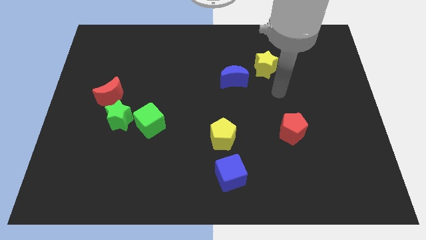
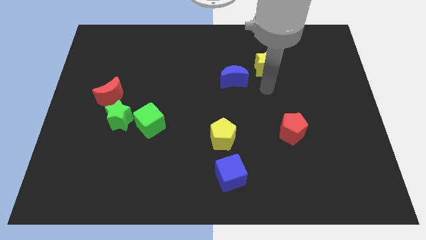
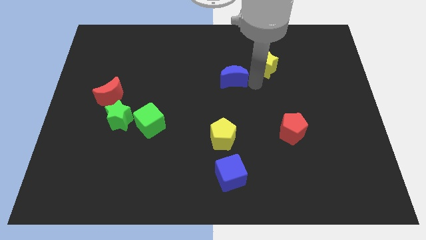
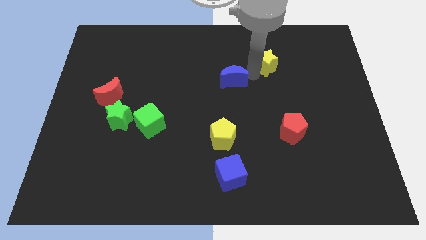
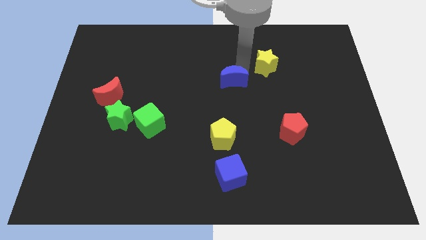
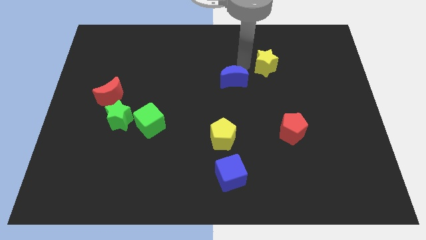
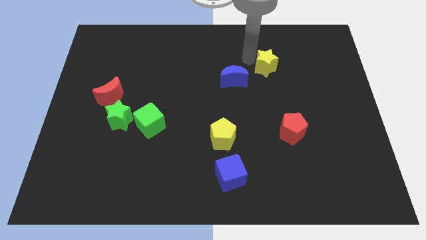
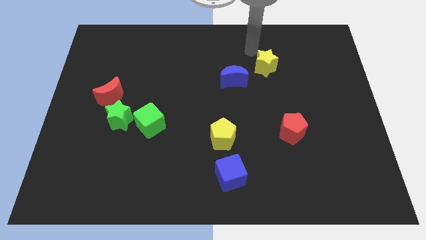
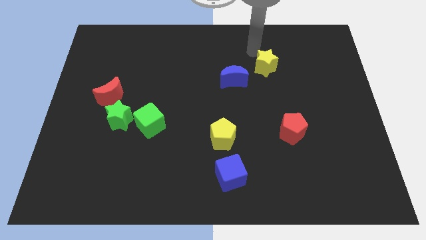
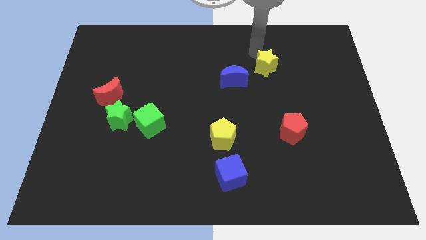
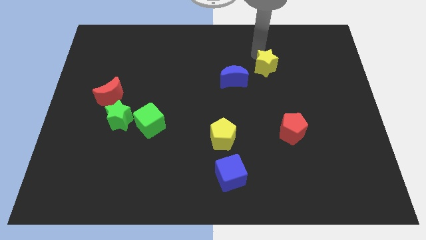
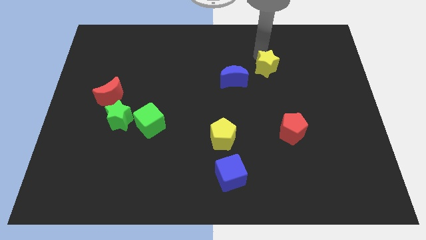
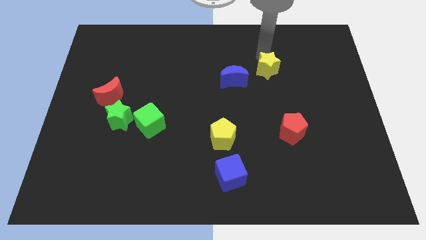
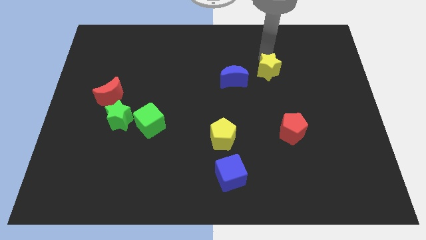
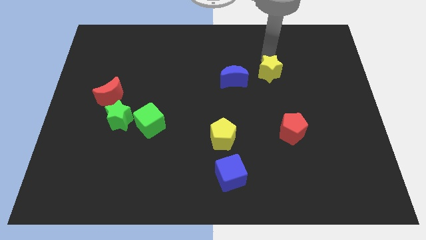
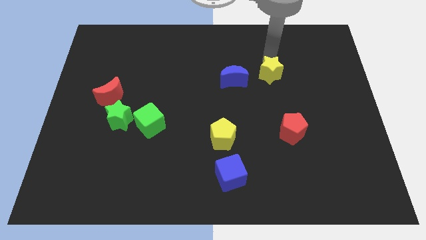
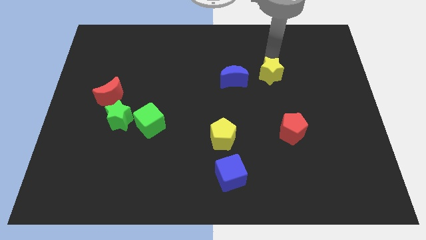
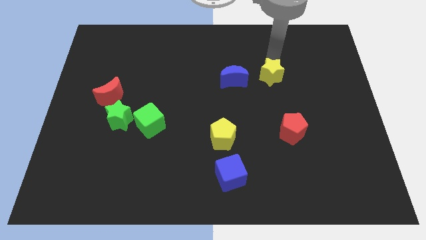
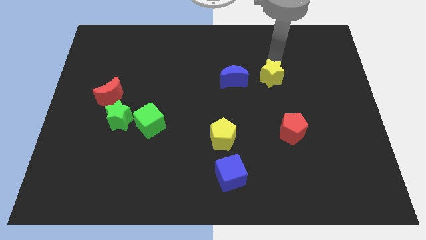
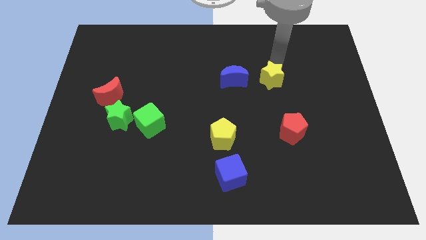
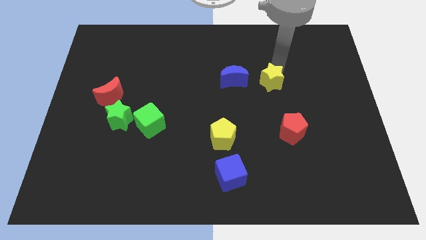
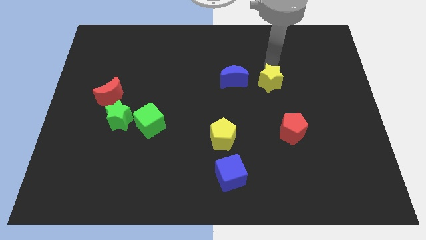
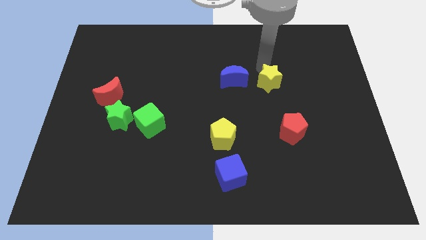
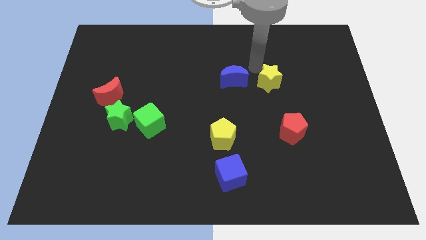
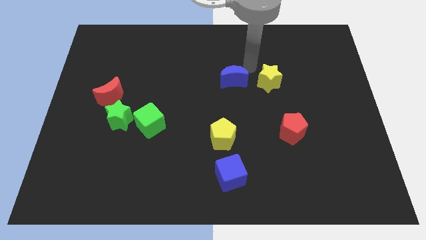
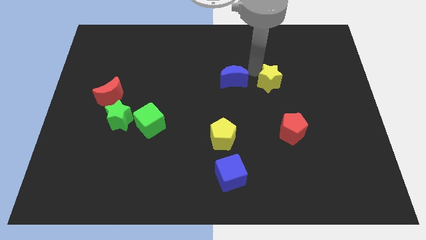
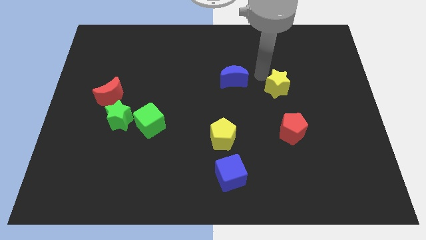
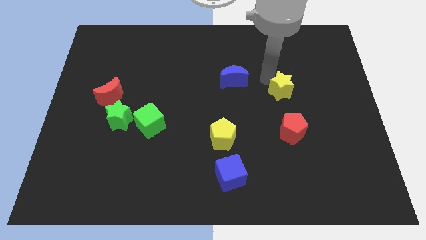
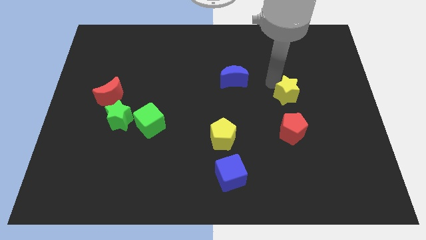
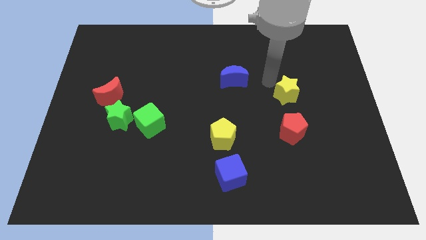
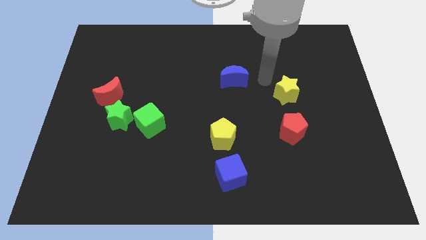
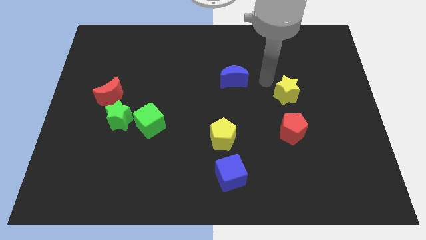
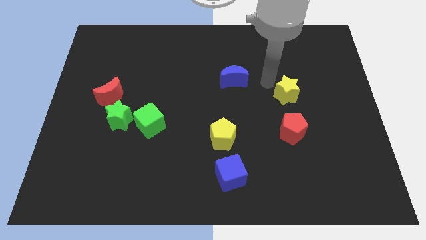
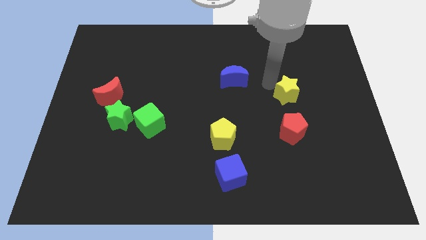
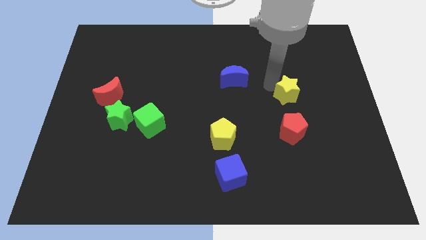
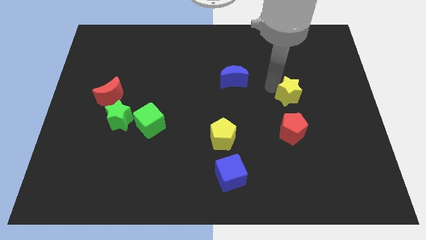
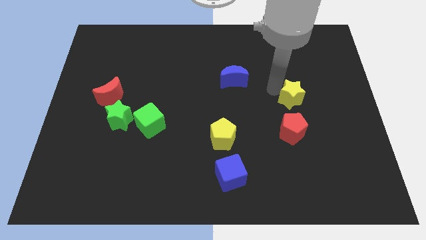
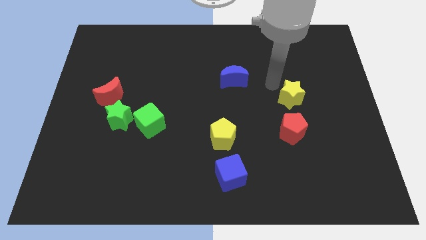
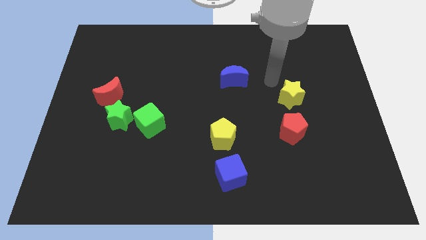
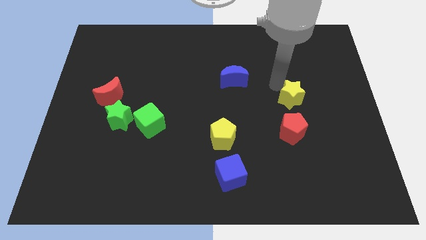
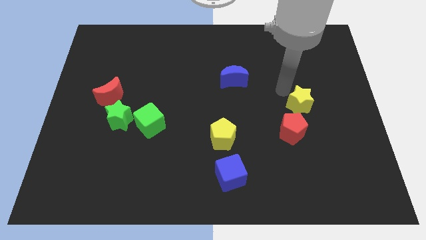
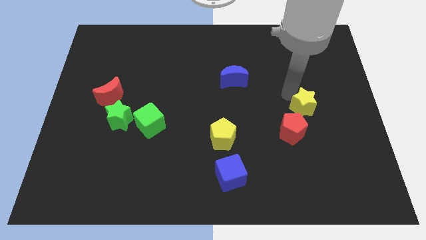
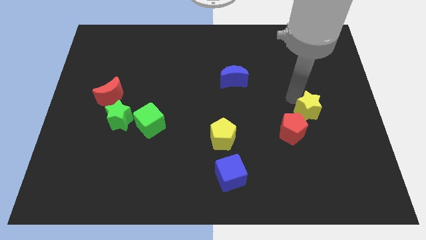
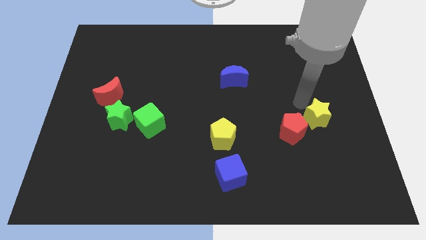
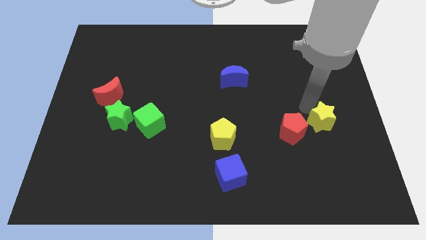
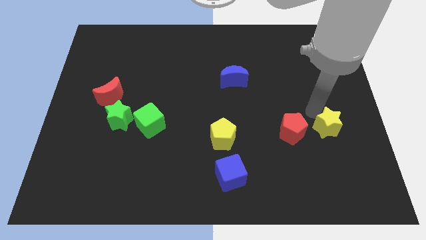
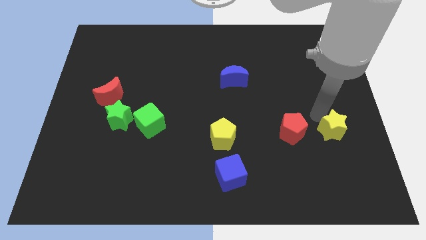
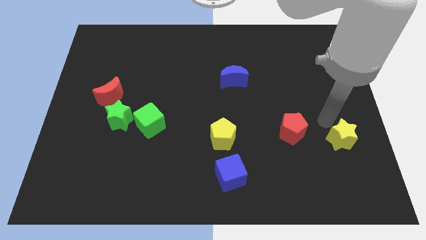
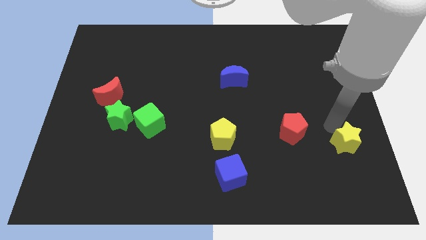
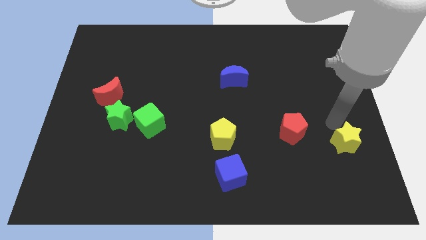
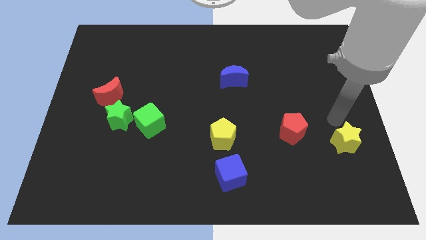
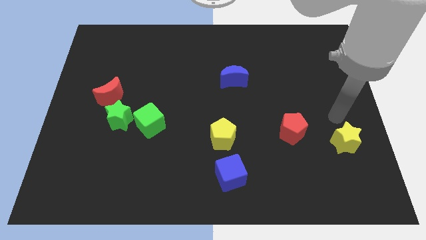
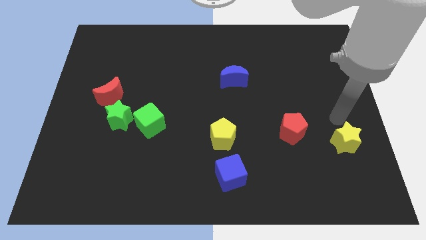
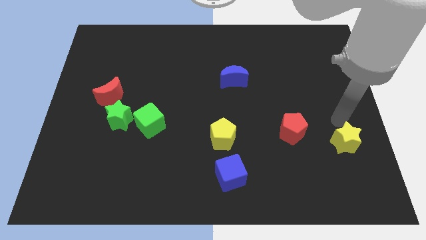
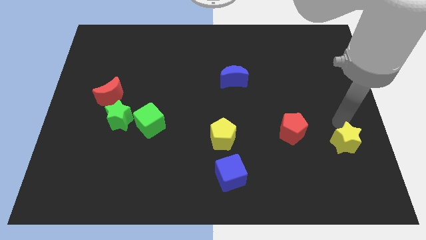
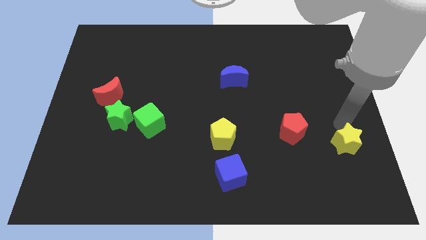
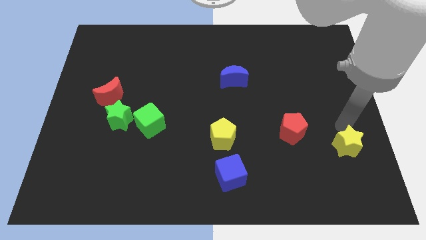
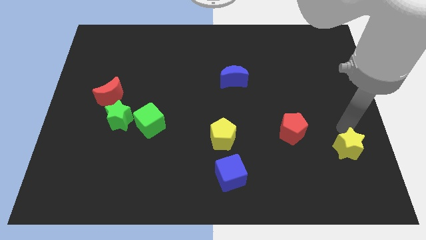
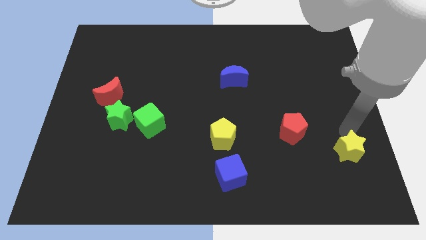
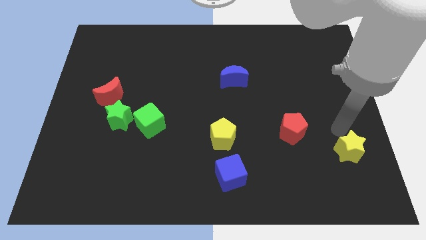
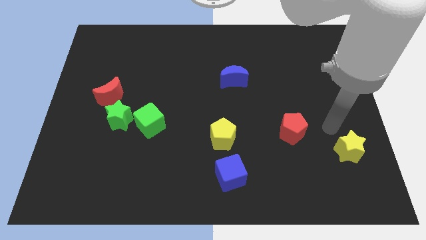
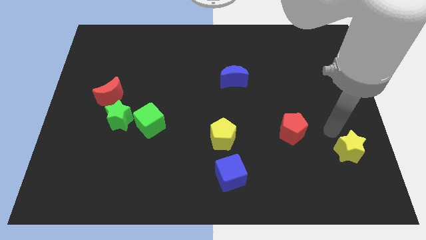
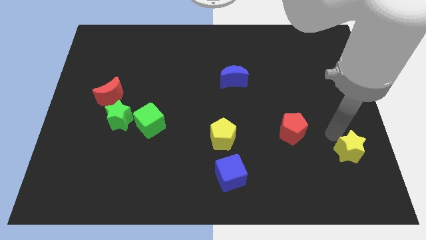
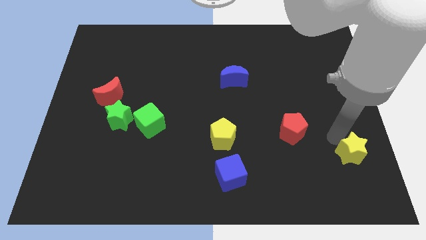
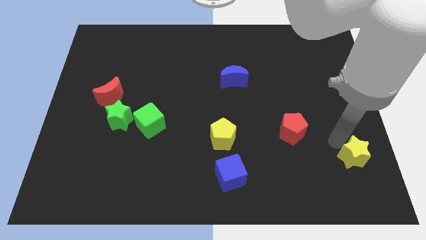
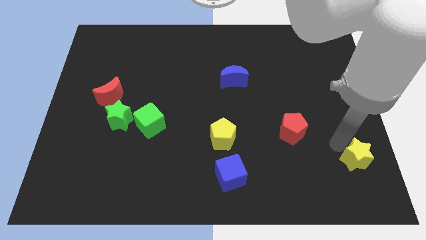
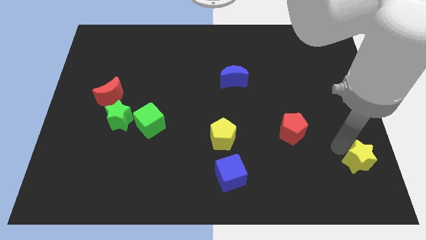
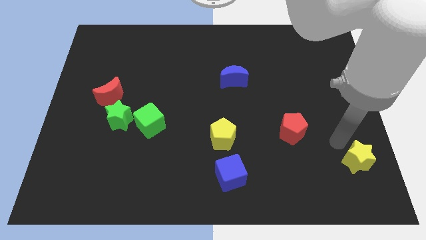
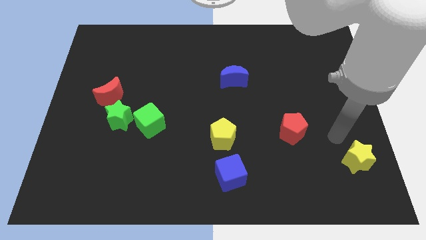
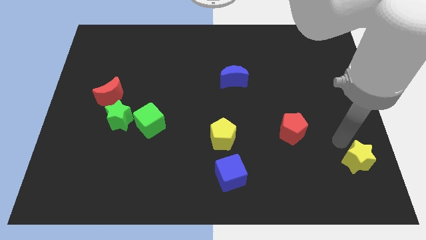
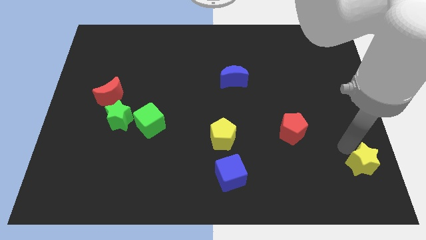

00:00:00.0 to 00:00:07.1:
slide the yellow star to the lower right corner
